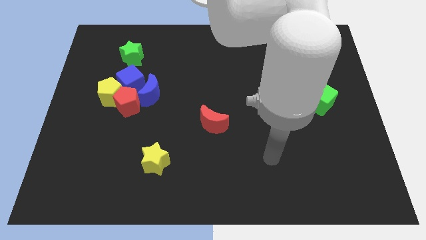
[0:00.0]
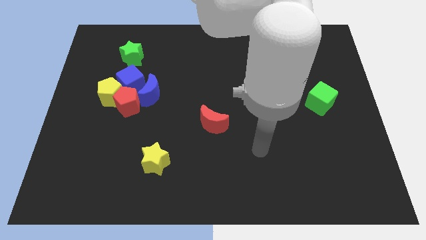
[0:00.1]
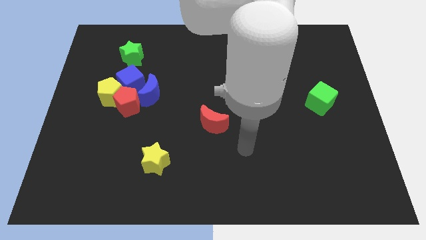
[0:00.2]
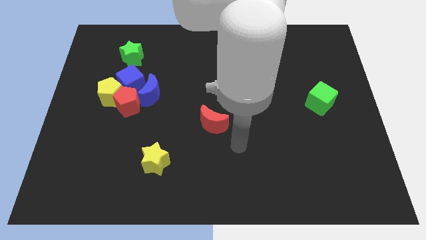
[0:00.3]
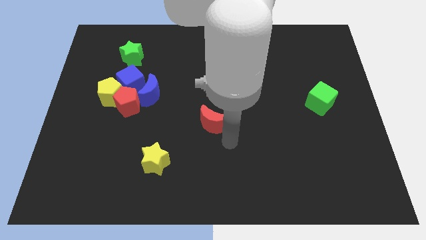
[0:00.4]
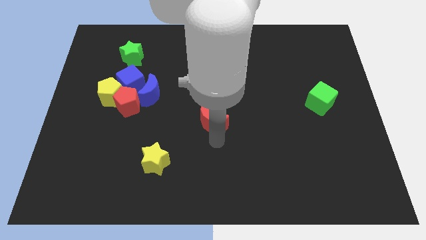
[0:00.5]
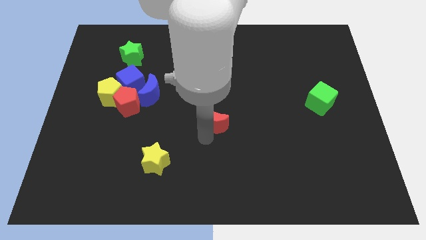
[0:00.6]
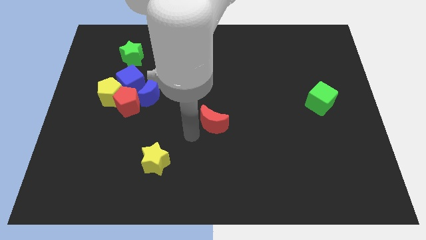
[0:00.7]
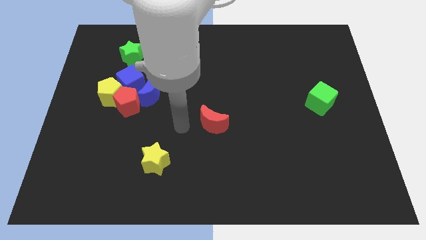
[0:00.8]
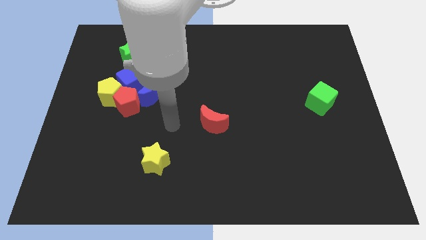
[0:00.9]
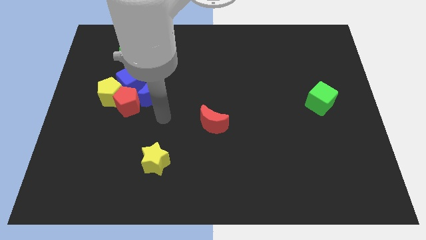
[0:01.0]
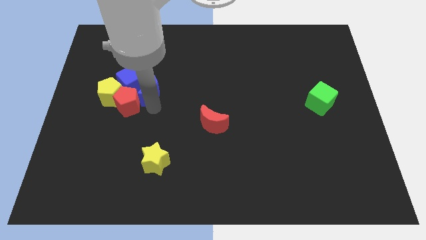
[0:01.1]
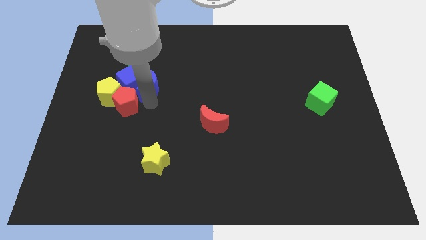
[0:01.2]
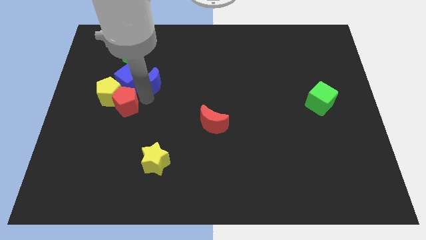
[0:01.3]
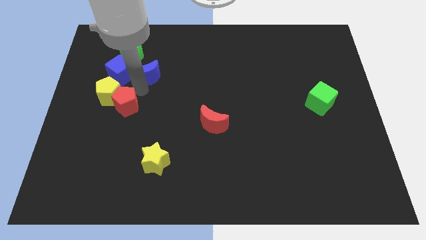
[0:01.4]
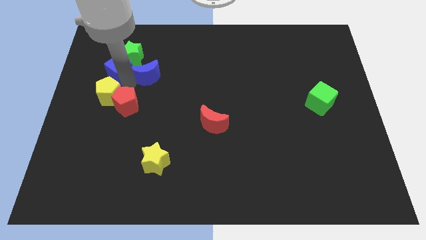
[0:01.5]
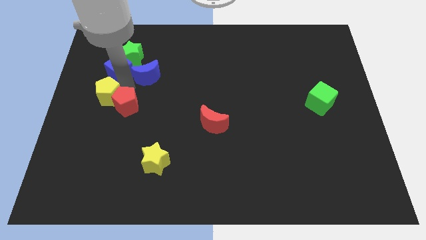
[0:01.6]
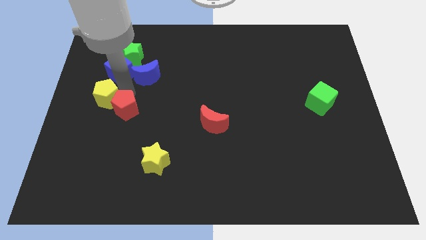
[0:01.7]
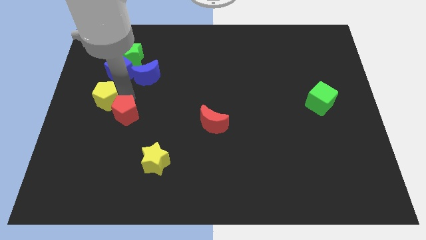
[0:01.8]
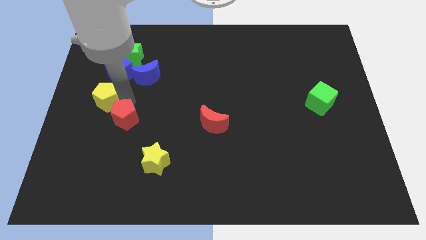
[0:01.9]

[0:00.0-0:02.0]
pull the red pentagon apart from the group of blocks

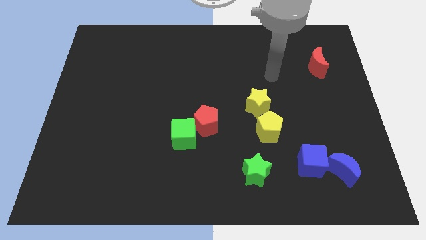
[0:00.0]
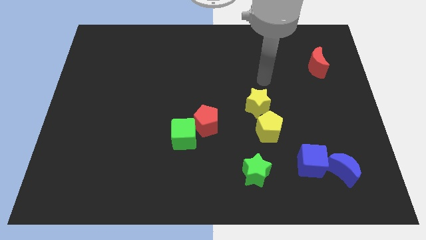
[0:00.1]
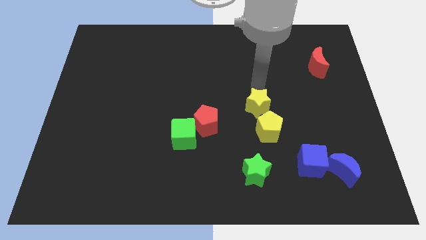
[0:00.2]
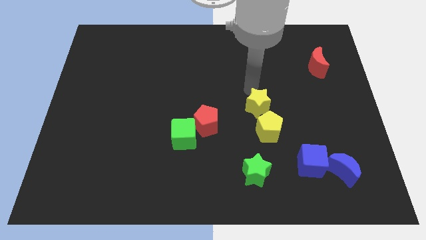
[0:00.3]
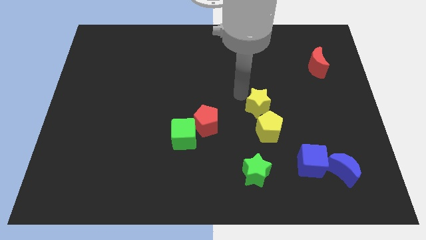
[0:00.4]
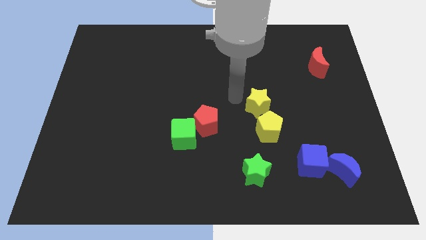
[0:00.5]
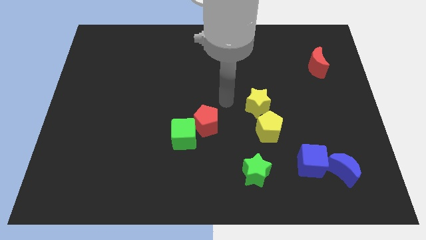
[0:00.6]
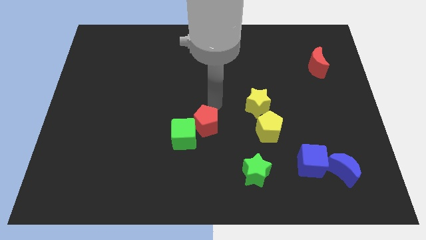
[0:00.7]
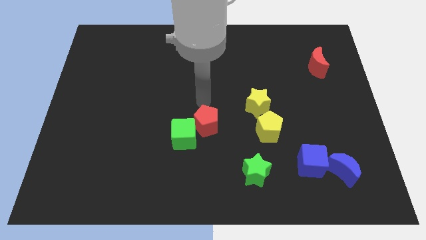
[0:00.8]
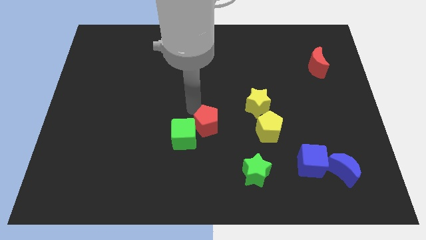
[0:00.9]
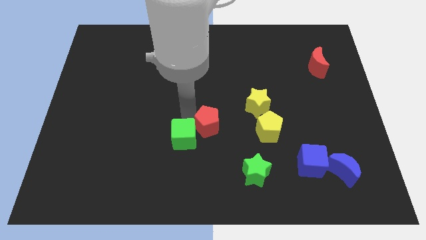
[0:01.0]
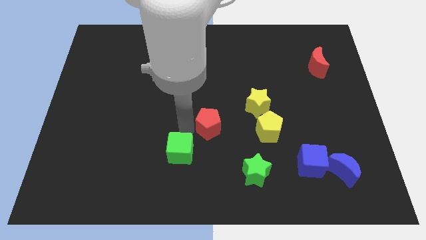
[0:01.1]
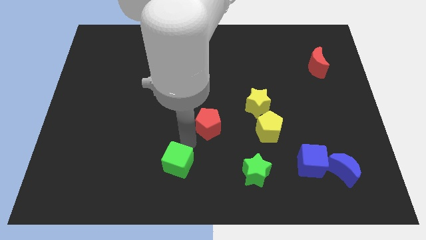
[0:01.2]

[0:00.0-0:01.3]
pull the red pentagon apart from the green cube

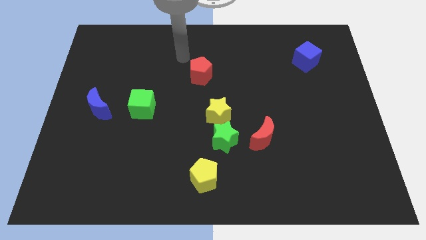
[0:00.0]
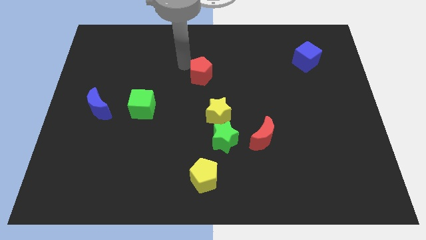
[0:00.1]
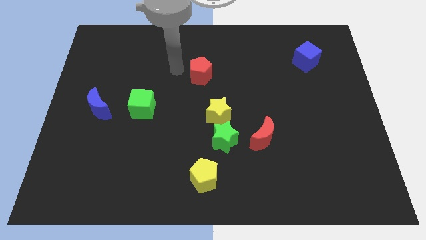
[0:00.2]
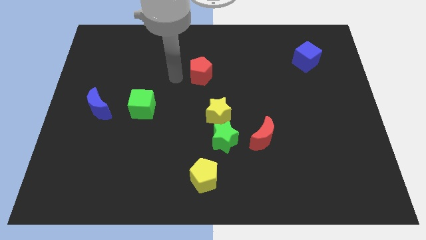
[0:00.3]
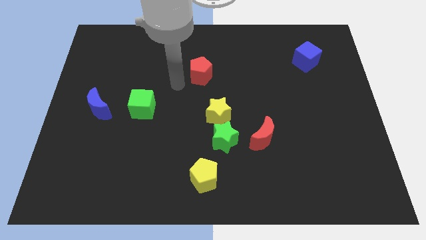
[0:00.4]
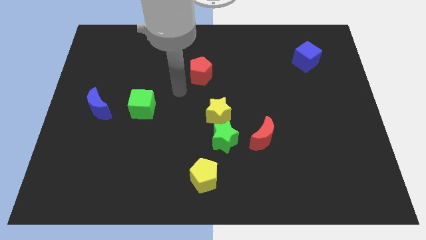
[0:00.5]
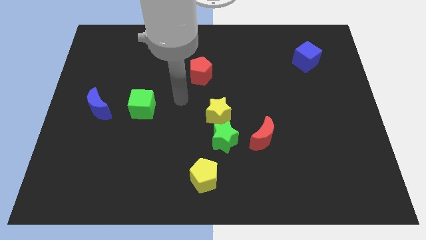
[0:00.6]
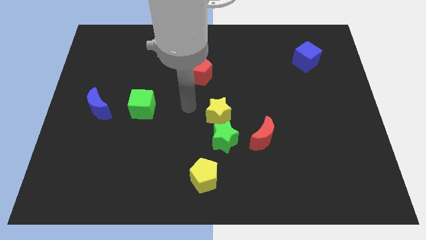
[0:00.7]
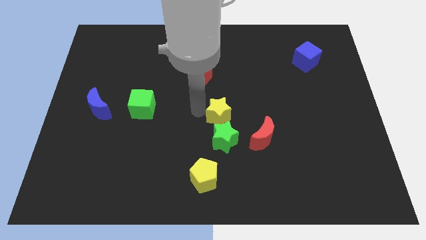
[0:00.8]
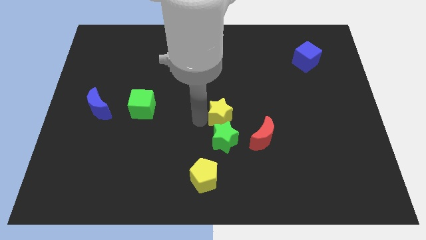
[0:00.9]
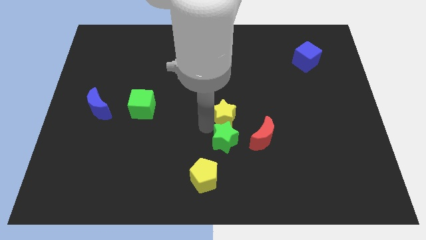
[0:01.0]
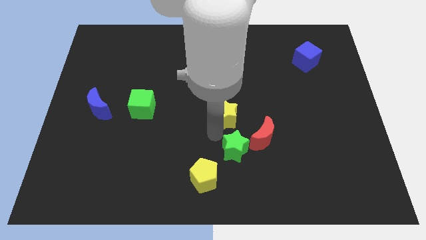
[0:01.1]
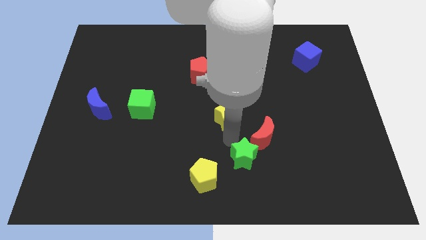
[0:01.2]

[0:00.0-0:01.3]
pull the yellow star apart from the green star

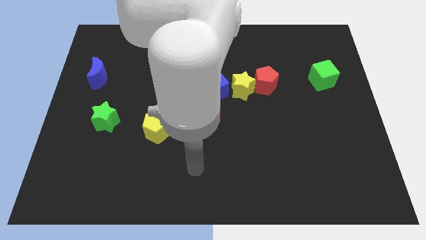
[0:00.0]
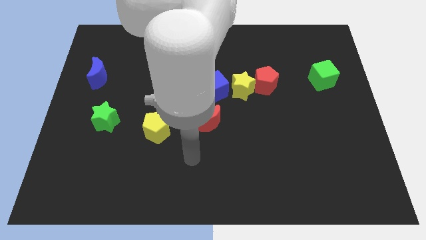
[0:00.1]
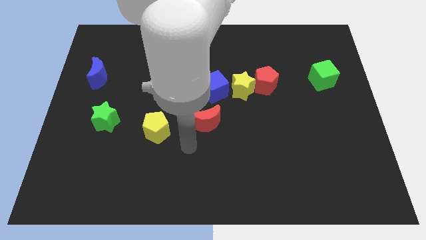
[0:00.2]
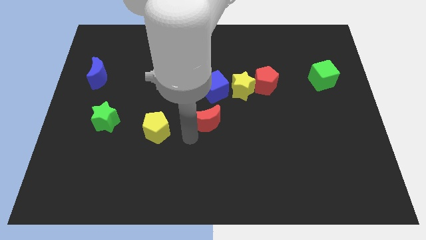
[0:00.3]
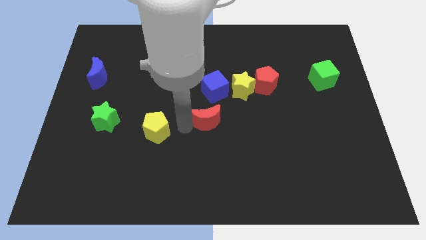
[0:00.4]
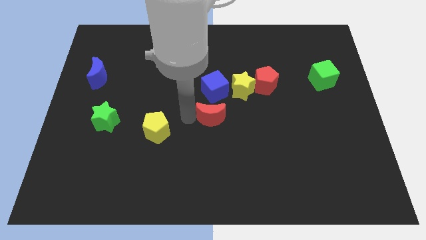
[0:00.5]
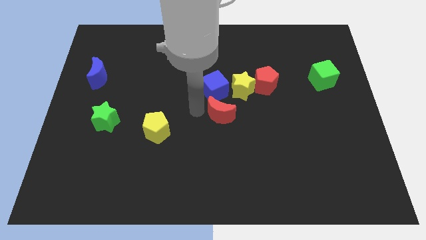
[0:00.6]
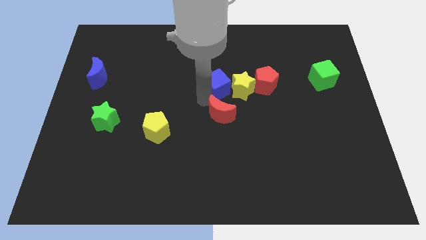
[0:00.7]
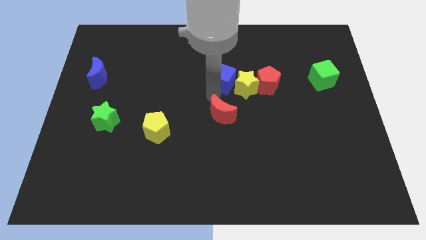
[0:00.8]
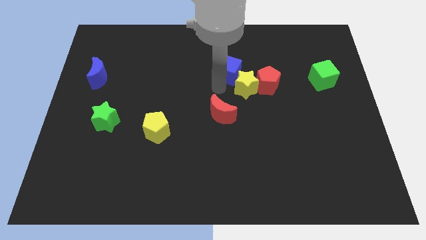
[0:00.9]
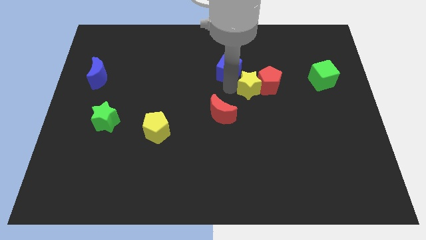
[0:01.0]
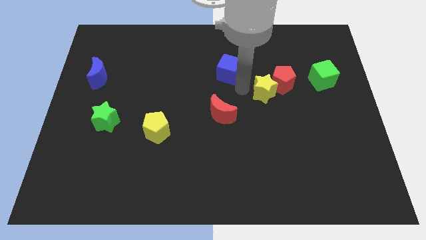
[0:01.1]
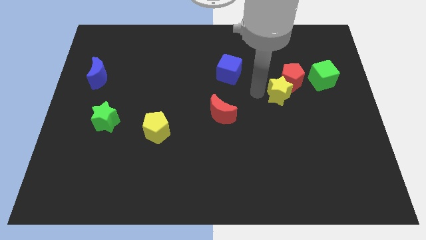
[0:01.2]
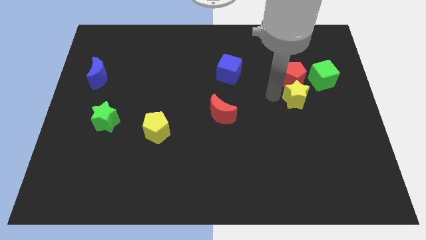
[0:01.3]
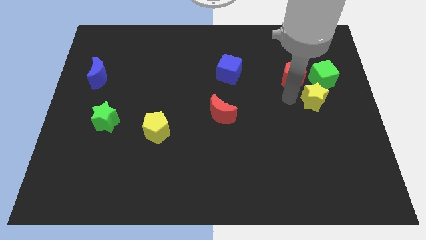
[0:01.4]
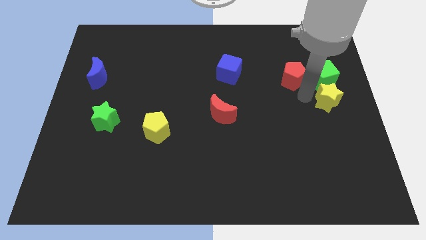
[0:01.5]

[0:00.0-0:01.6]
move the red pentagon away from the yellow star

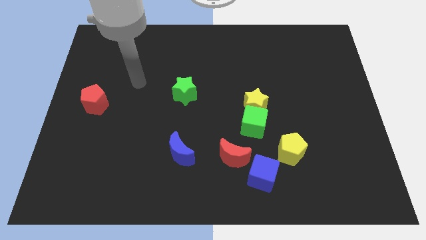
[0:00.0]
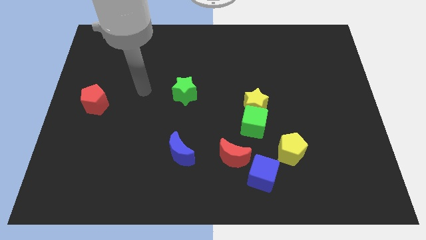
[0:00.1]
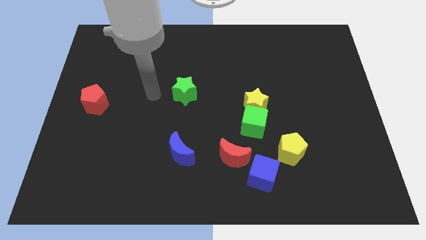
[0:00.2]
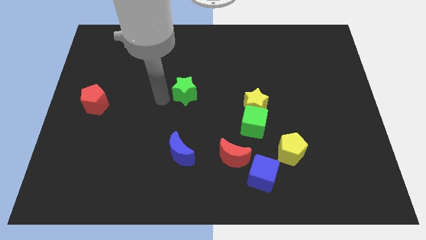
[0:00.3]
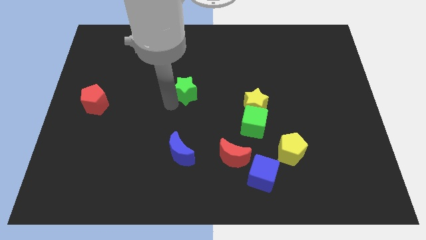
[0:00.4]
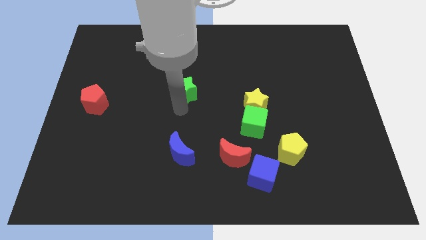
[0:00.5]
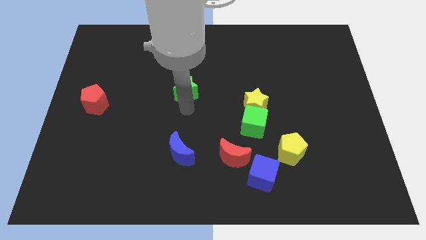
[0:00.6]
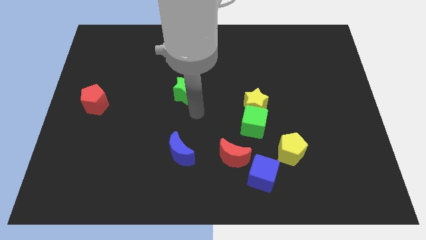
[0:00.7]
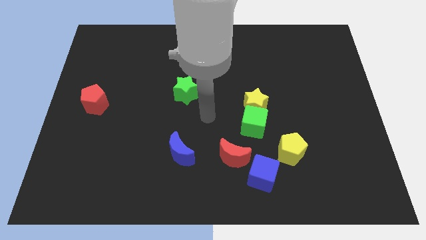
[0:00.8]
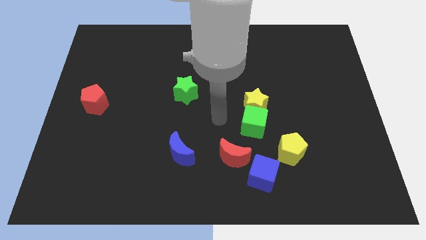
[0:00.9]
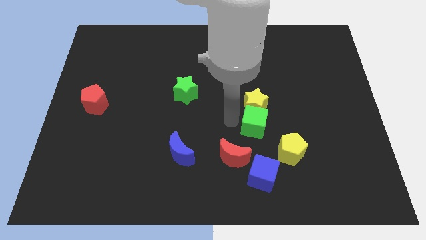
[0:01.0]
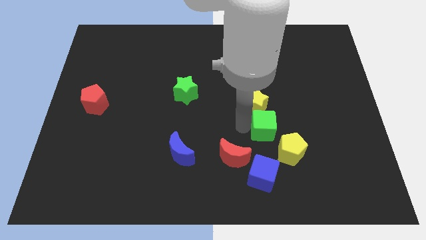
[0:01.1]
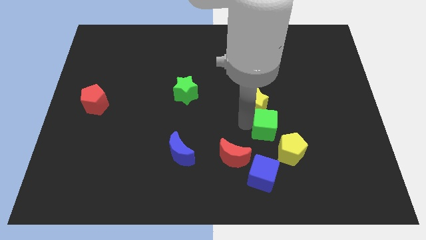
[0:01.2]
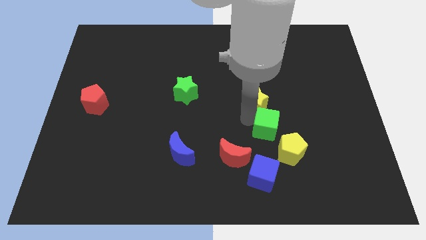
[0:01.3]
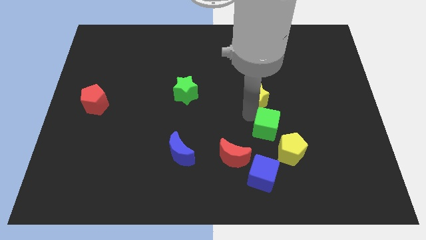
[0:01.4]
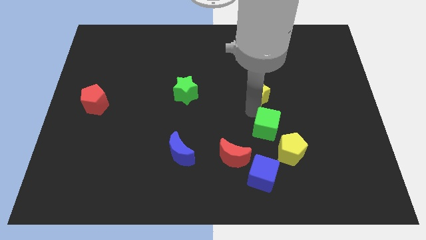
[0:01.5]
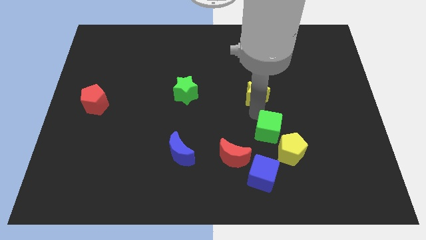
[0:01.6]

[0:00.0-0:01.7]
pull the yellow star apart from the green cube

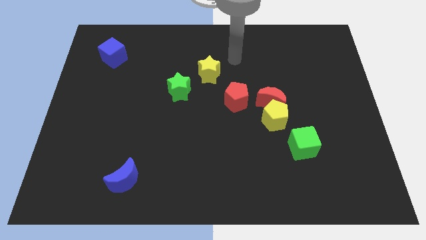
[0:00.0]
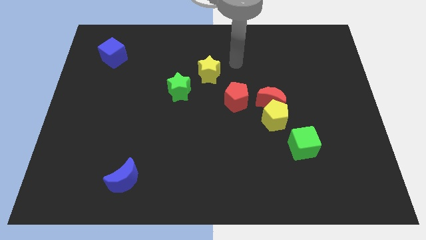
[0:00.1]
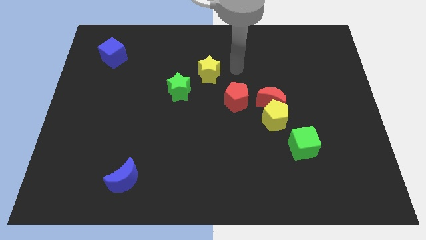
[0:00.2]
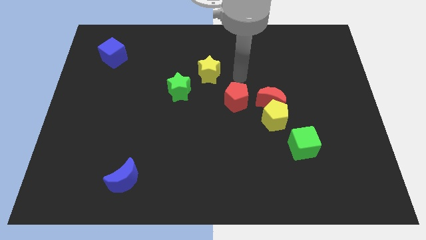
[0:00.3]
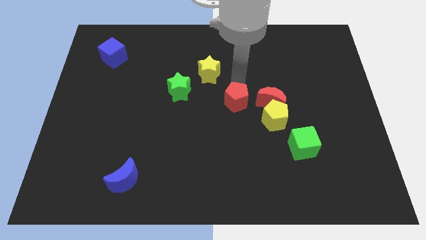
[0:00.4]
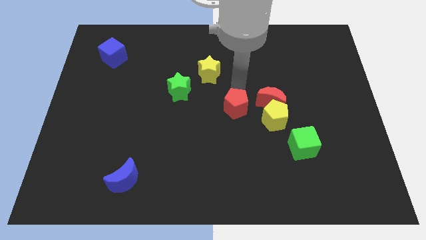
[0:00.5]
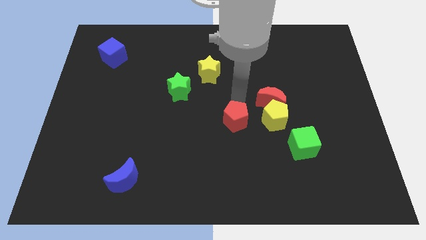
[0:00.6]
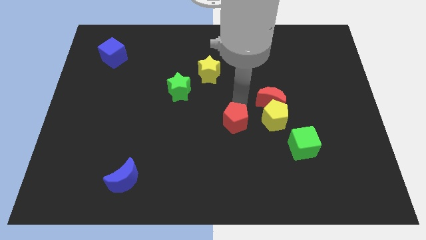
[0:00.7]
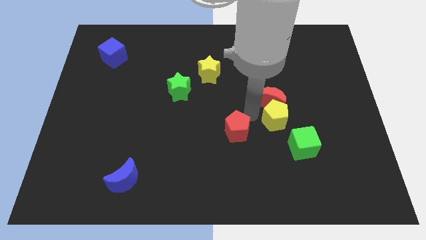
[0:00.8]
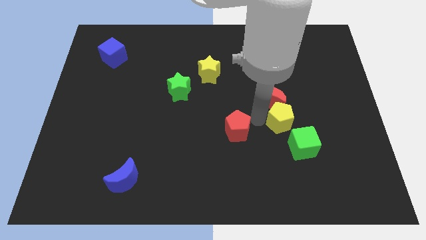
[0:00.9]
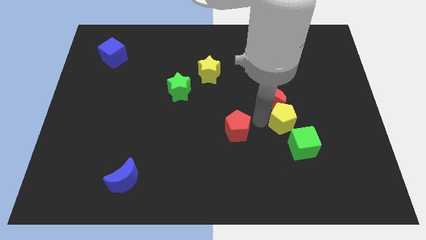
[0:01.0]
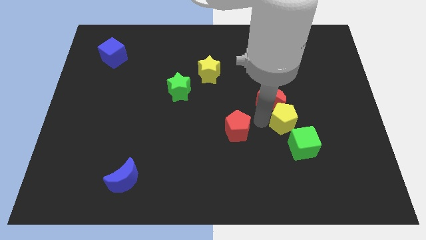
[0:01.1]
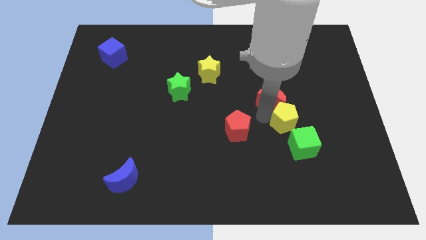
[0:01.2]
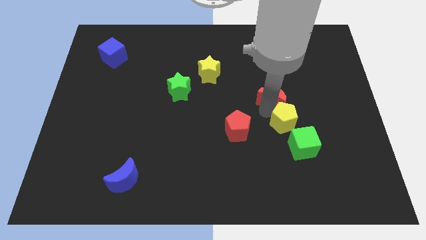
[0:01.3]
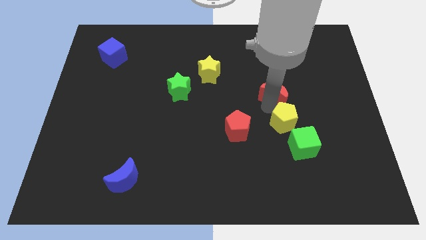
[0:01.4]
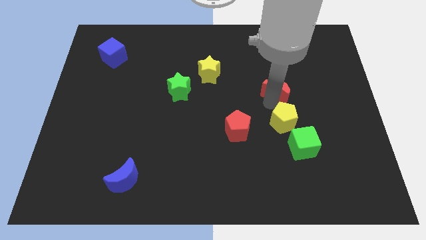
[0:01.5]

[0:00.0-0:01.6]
pull the red moon apart from the yellow pentagon and red pentagon
